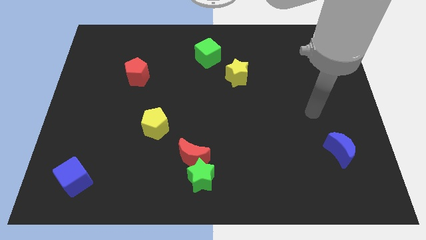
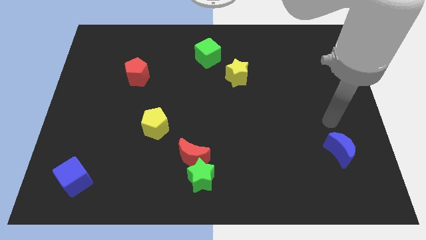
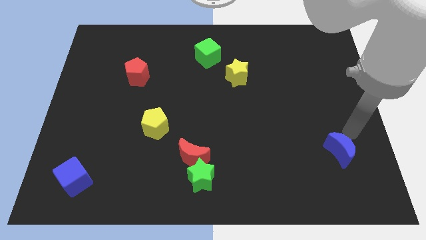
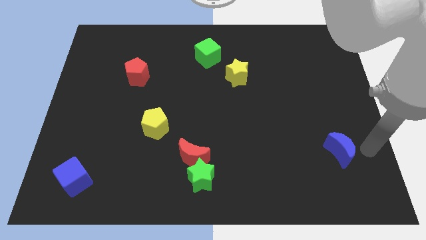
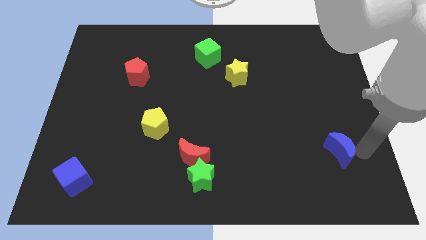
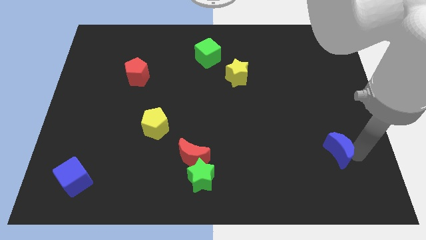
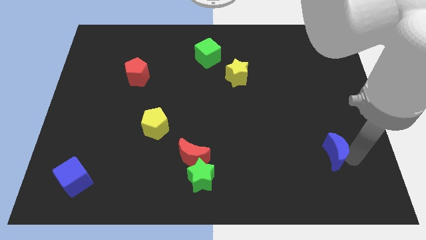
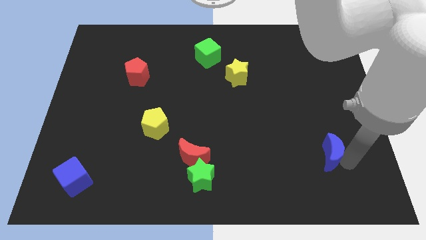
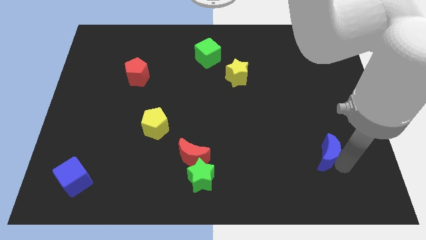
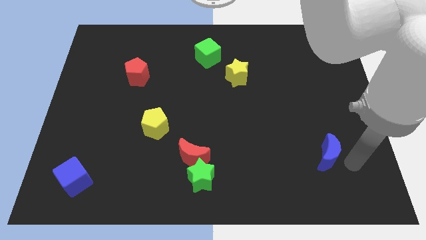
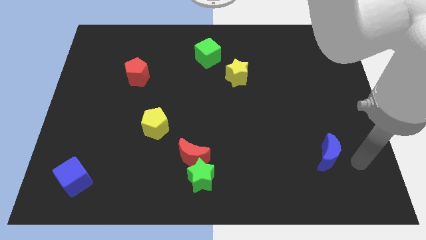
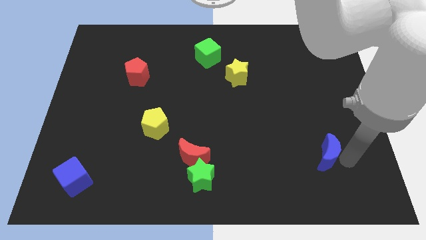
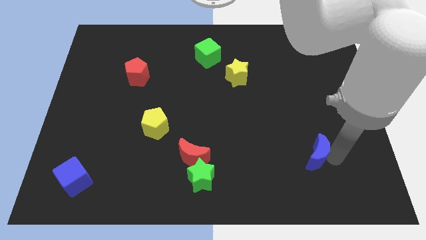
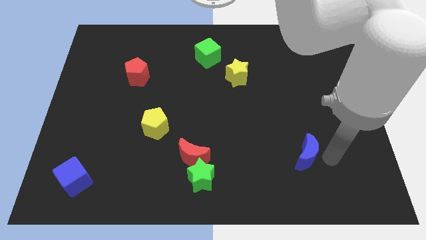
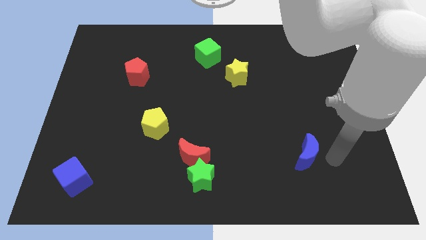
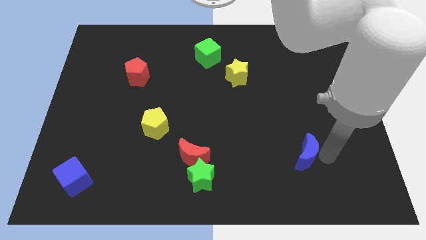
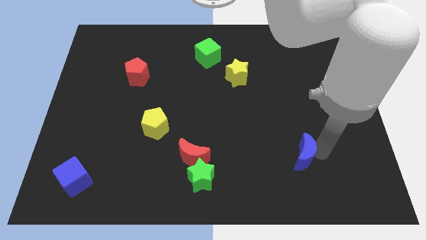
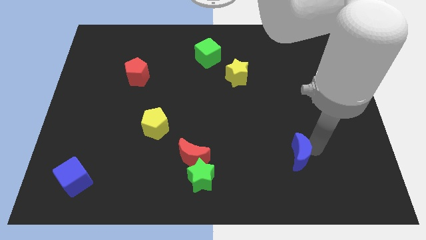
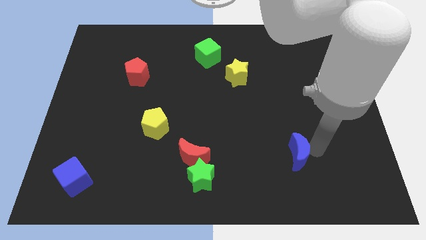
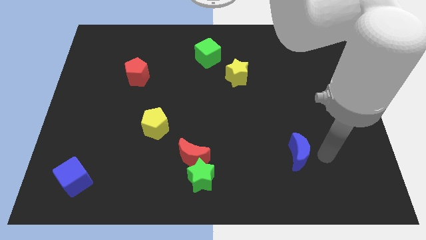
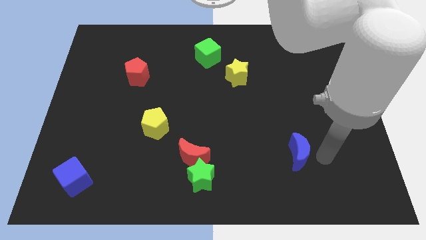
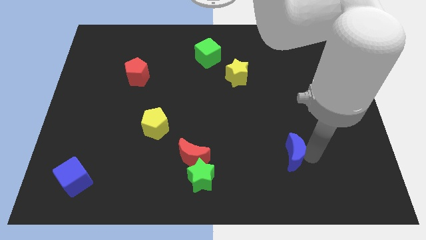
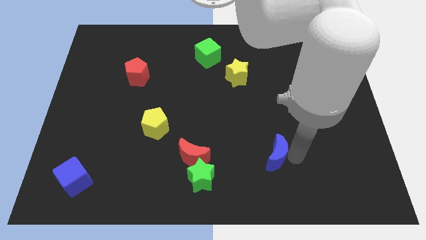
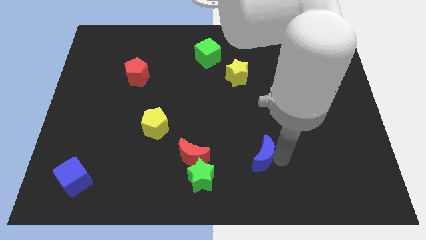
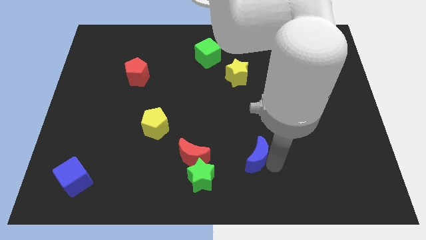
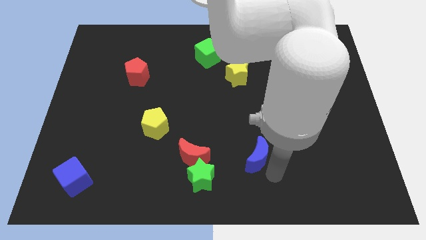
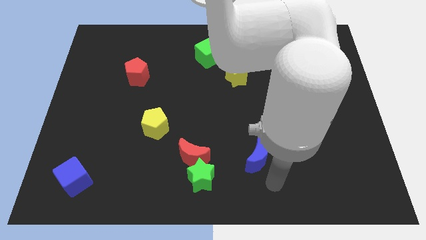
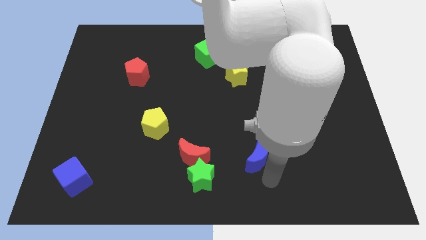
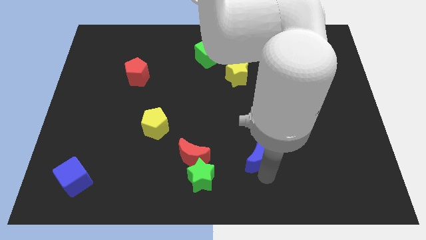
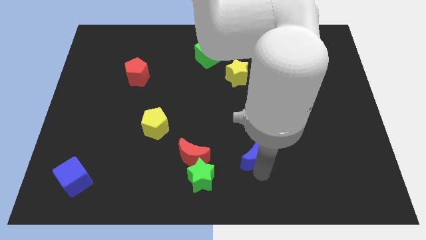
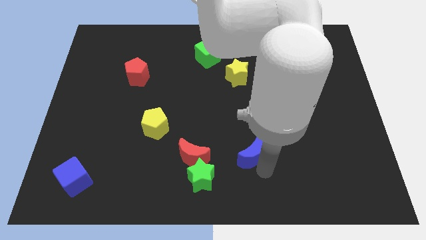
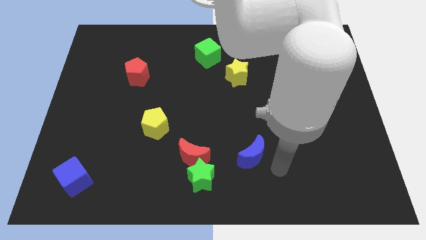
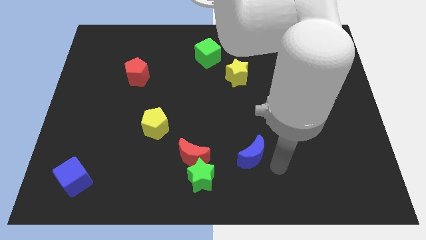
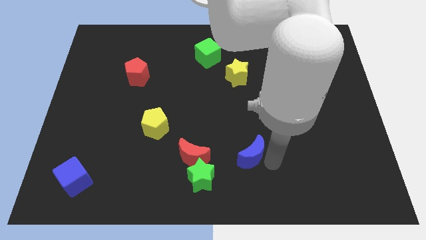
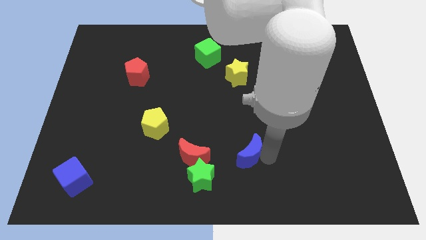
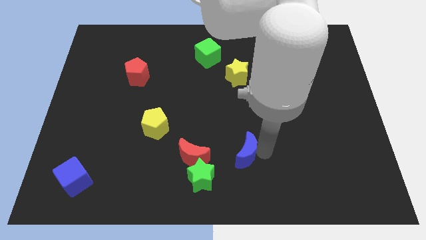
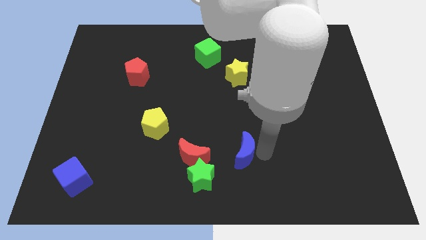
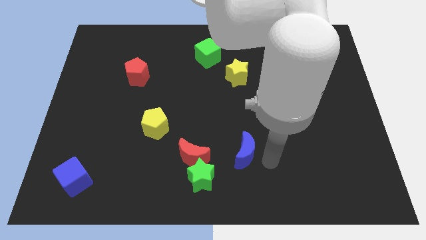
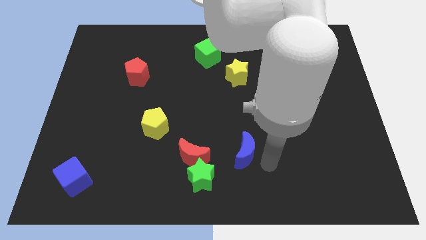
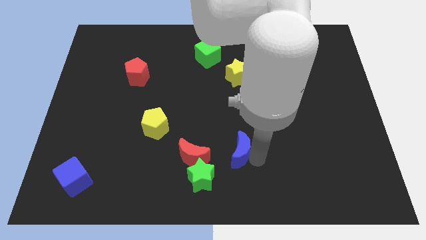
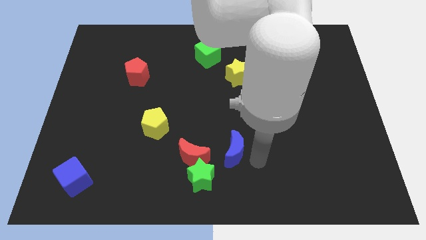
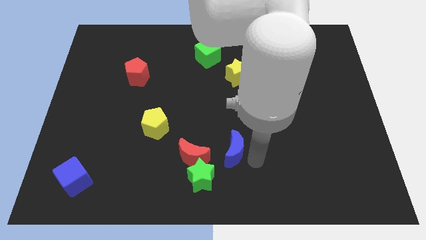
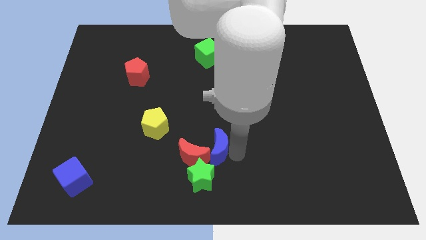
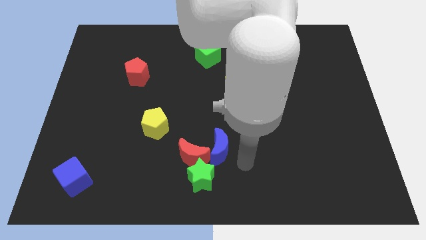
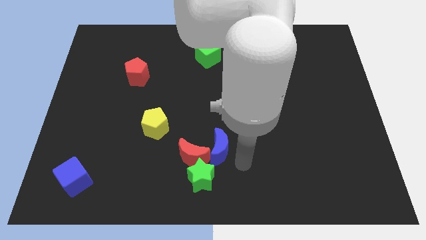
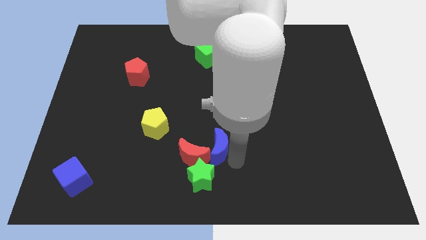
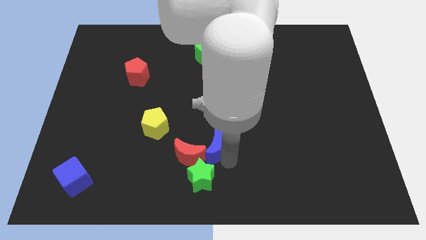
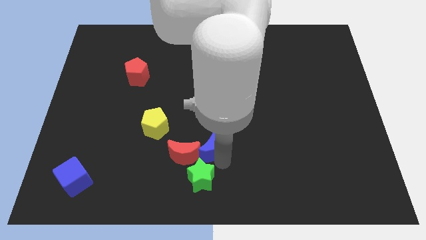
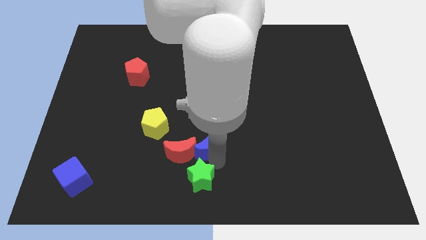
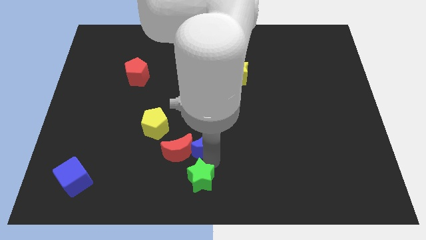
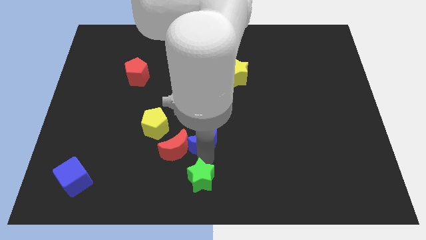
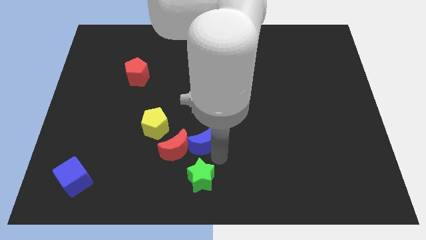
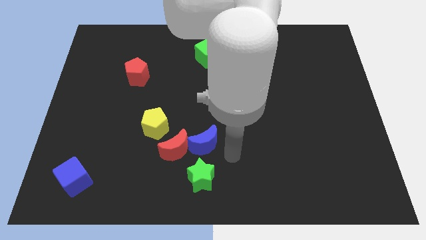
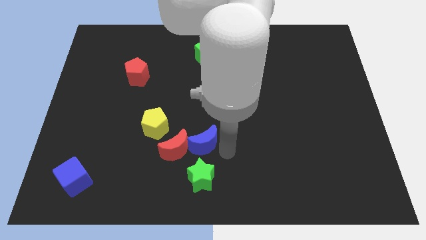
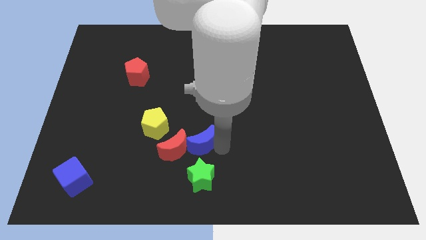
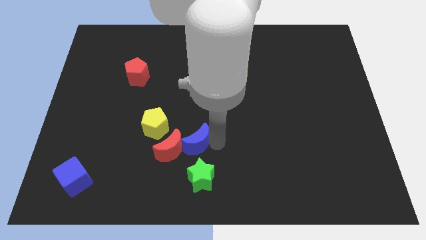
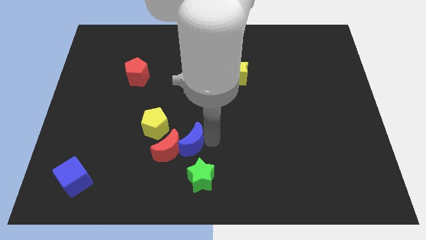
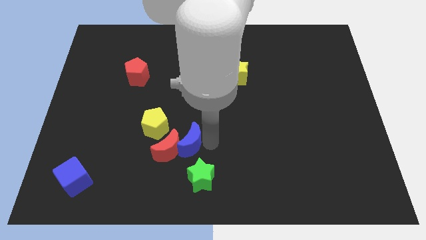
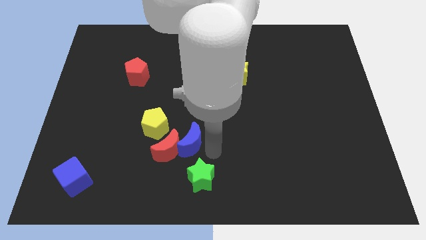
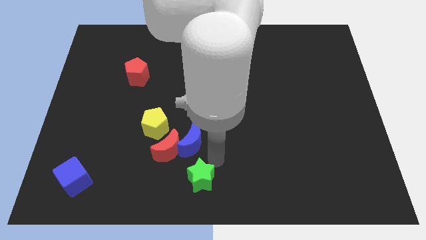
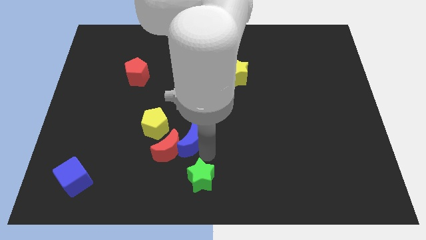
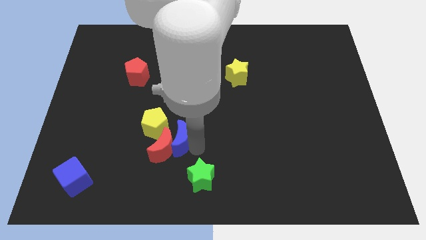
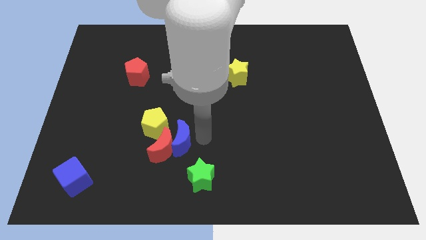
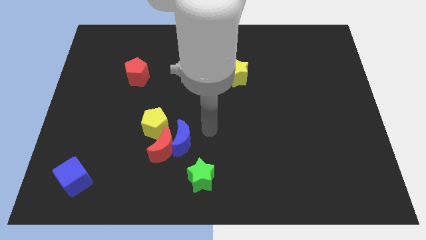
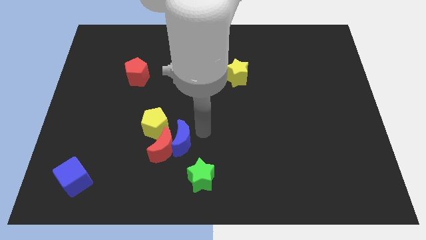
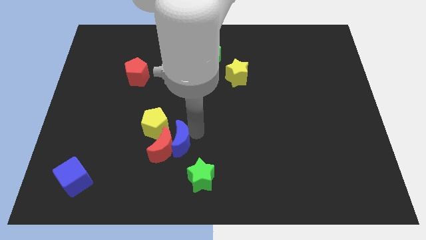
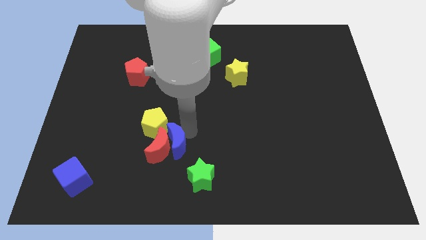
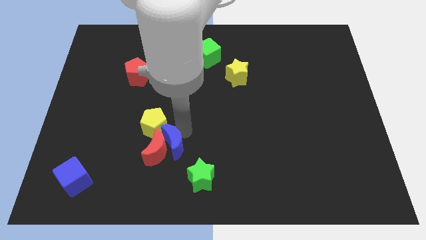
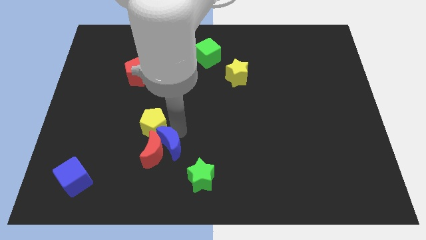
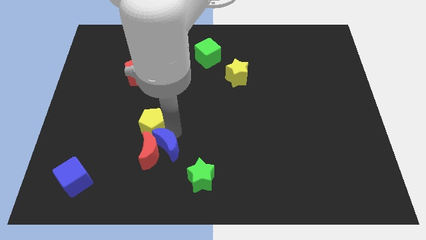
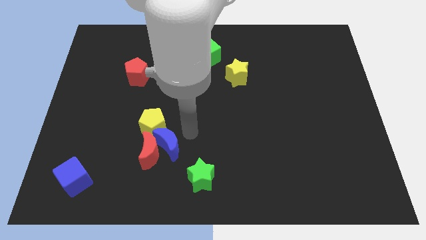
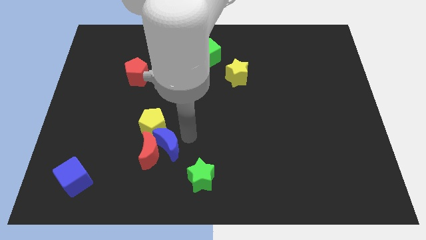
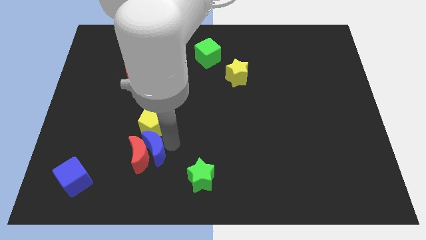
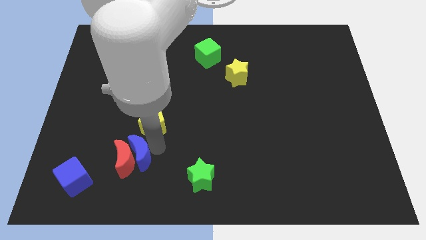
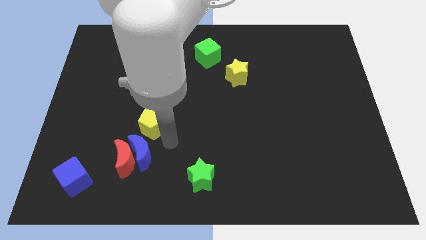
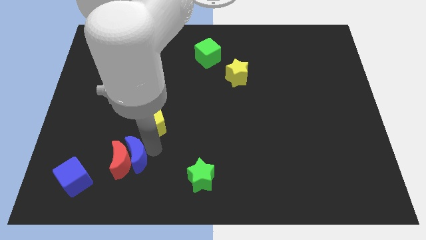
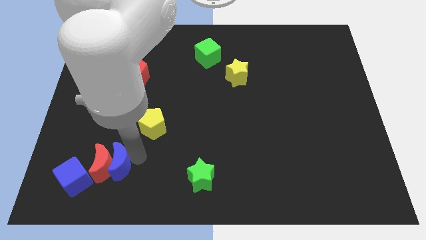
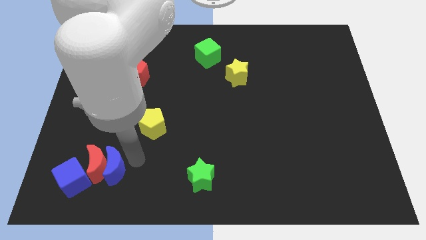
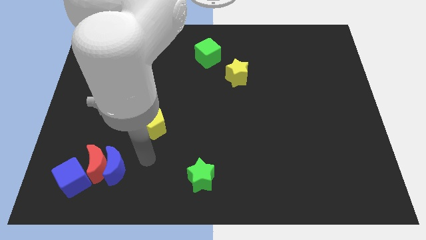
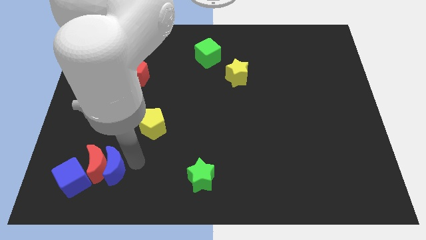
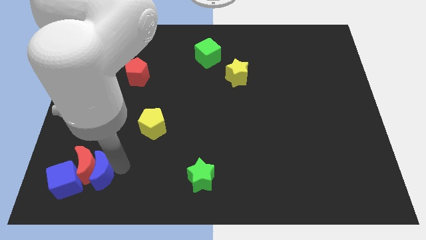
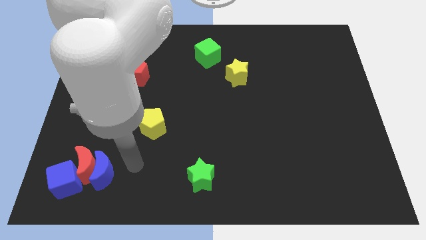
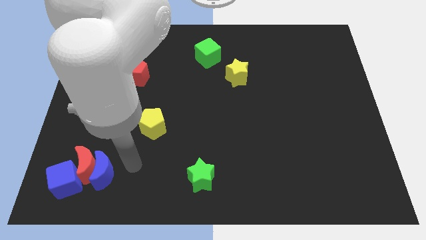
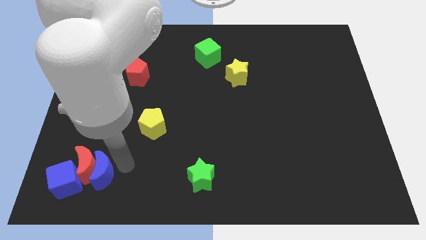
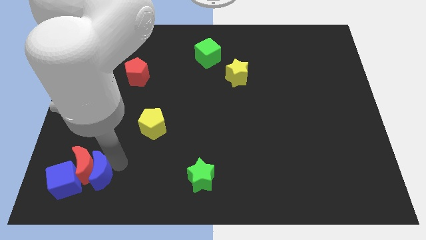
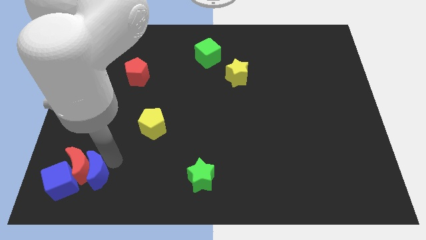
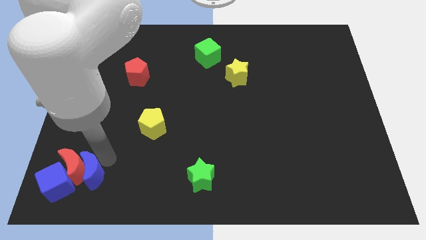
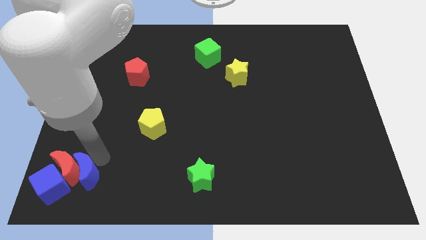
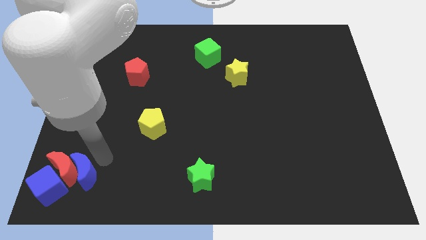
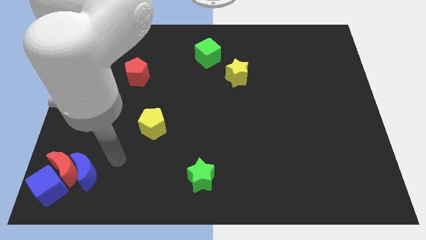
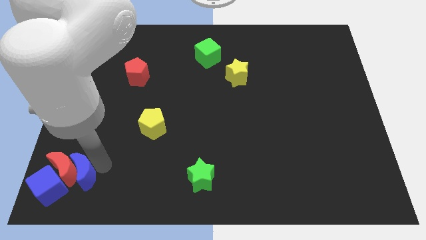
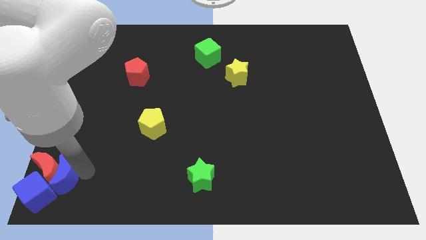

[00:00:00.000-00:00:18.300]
put the blue moon close to the blue cube
